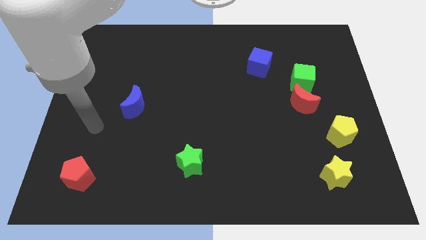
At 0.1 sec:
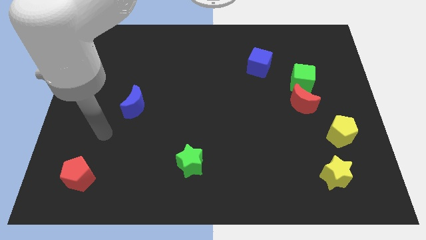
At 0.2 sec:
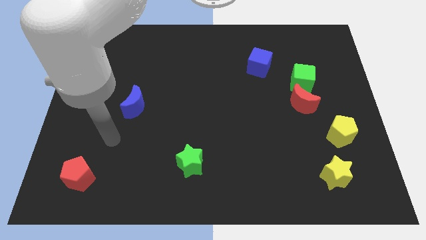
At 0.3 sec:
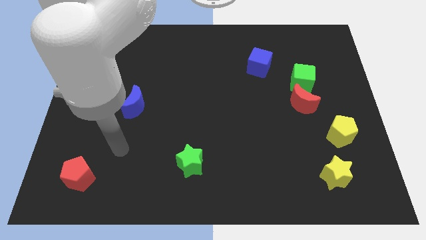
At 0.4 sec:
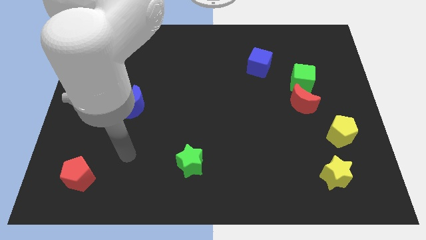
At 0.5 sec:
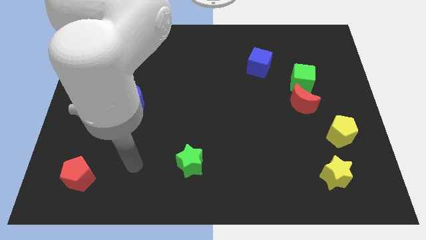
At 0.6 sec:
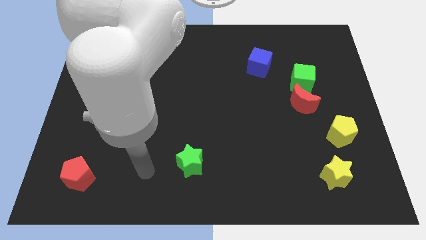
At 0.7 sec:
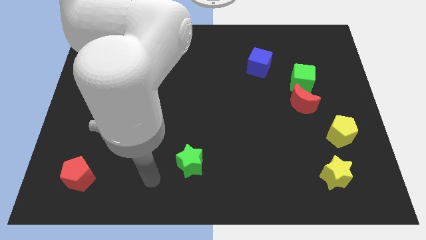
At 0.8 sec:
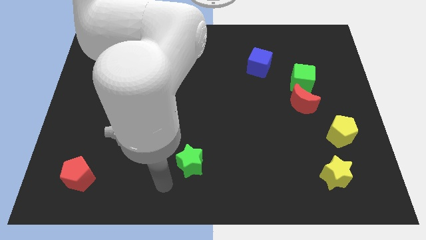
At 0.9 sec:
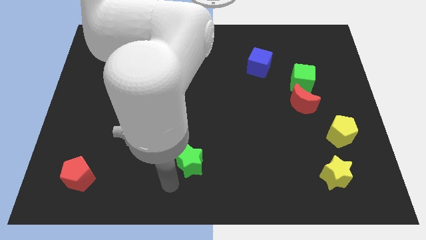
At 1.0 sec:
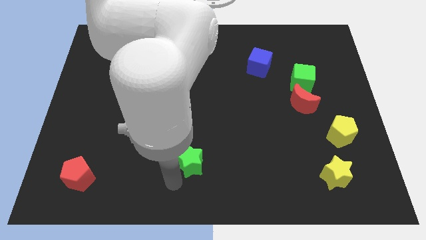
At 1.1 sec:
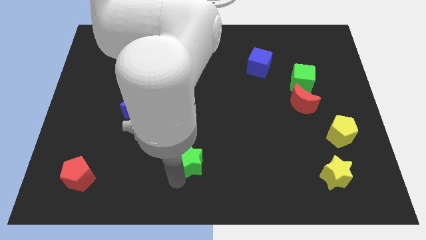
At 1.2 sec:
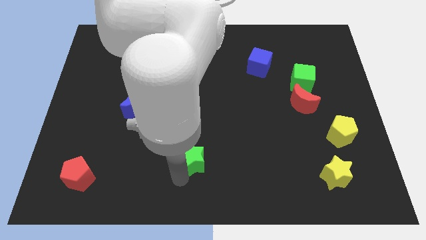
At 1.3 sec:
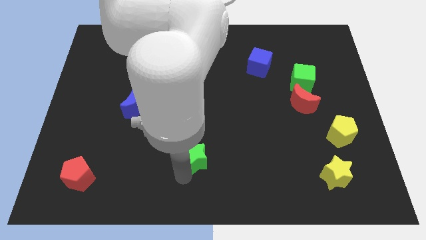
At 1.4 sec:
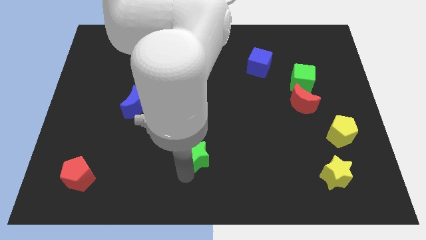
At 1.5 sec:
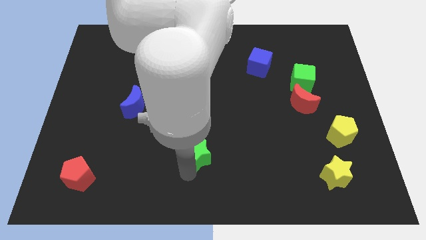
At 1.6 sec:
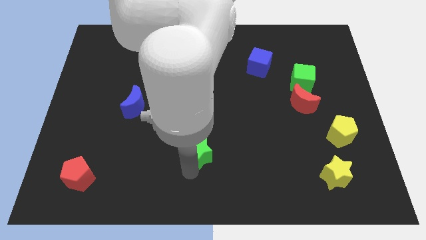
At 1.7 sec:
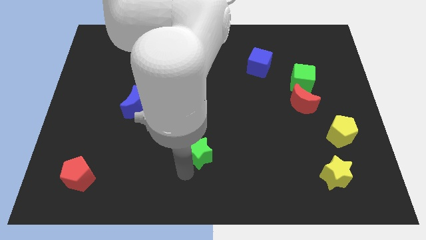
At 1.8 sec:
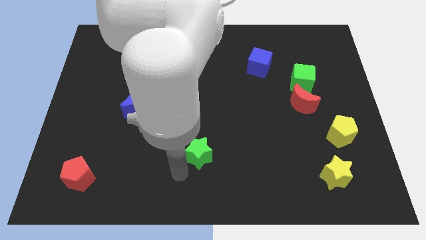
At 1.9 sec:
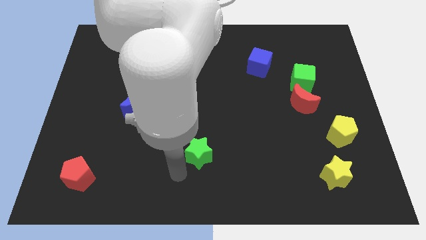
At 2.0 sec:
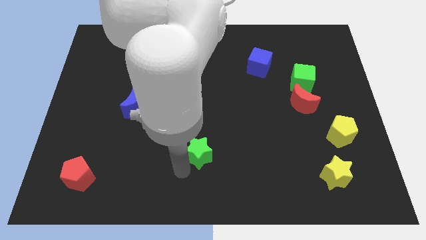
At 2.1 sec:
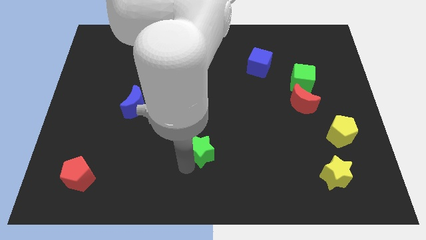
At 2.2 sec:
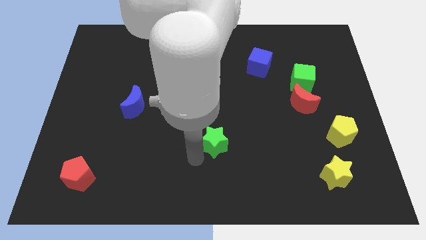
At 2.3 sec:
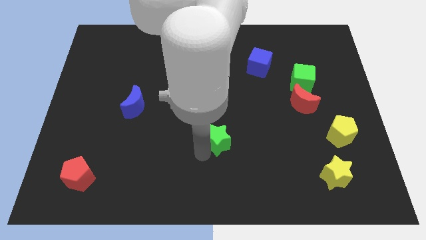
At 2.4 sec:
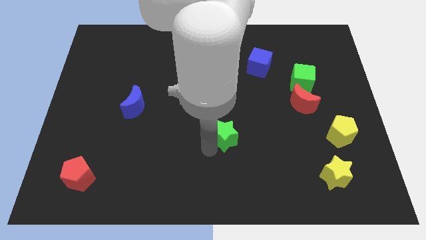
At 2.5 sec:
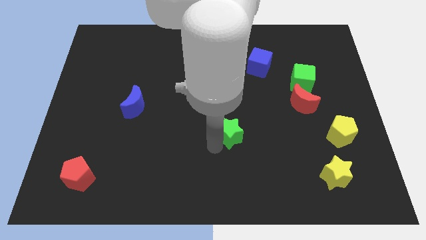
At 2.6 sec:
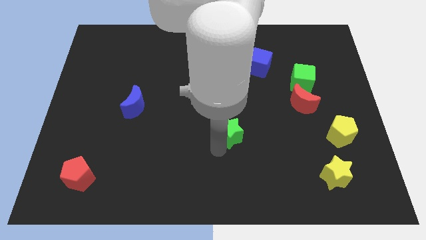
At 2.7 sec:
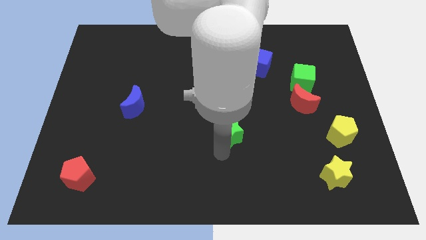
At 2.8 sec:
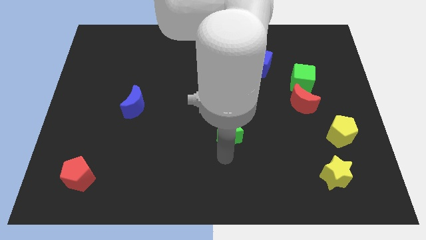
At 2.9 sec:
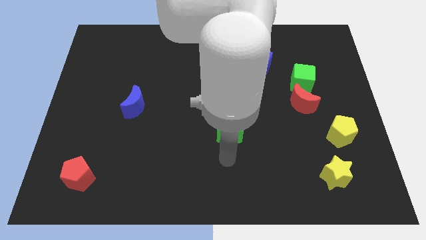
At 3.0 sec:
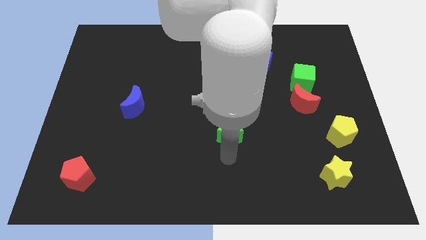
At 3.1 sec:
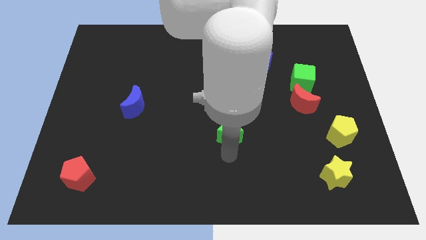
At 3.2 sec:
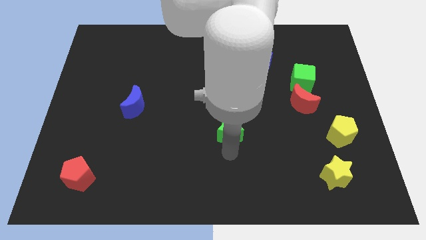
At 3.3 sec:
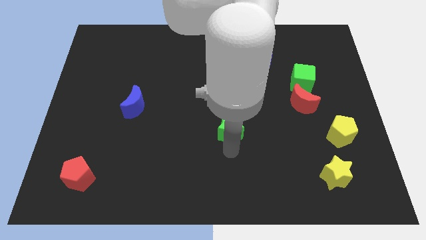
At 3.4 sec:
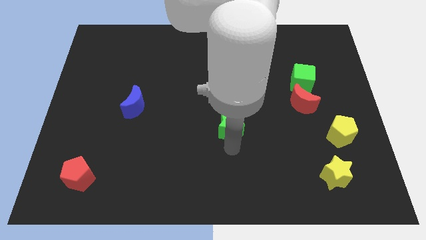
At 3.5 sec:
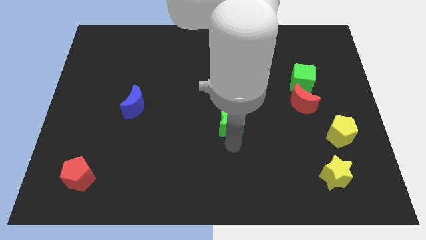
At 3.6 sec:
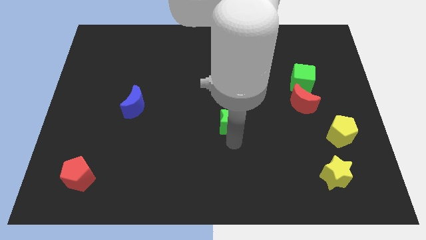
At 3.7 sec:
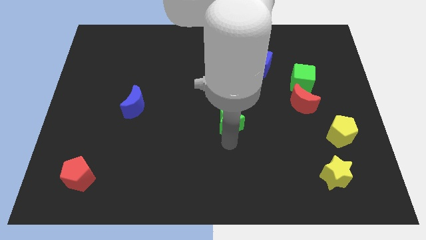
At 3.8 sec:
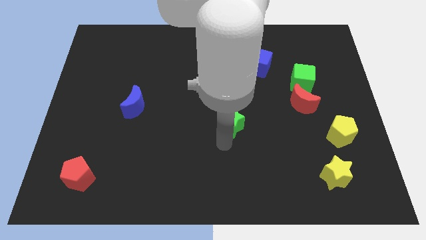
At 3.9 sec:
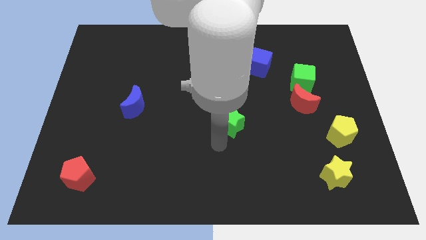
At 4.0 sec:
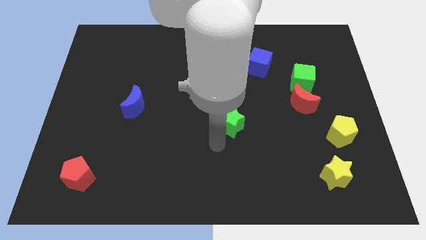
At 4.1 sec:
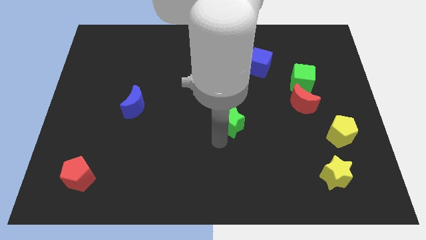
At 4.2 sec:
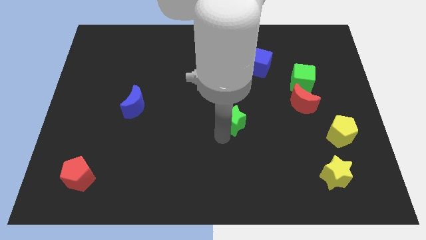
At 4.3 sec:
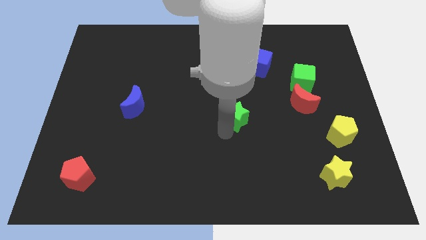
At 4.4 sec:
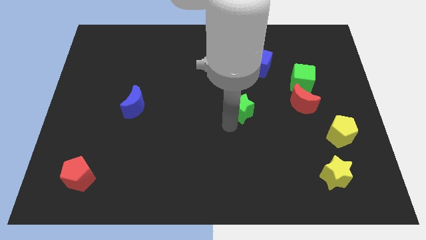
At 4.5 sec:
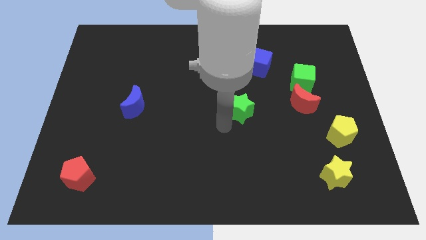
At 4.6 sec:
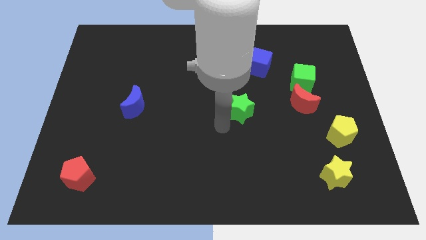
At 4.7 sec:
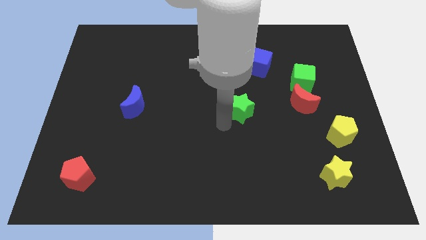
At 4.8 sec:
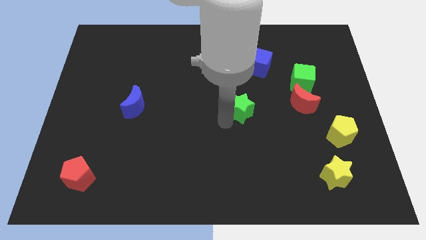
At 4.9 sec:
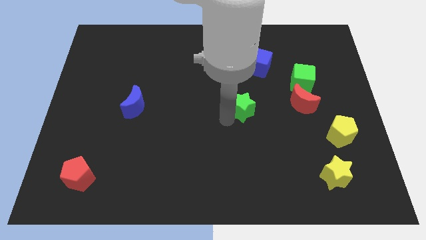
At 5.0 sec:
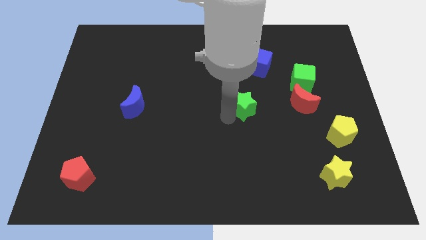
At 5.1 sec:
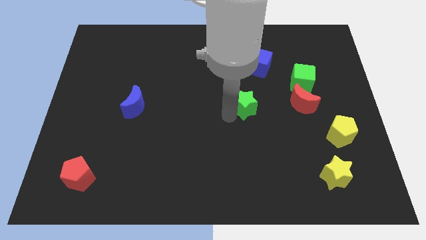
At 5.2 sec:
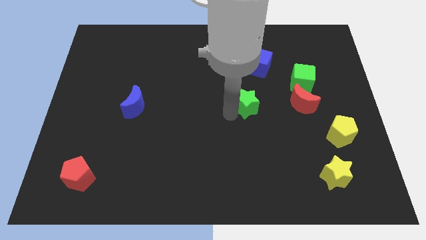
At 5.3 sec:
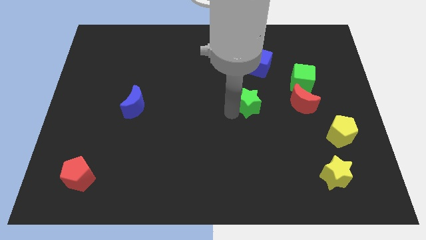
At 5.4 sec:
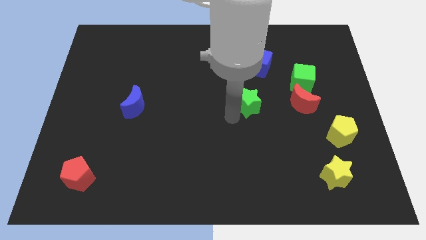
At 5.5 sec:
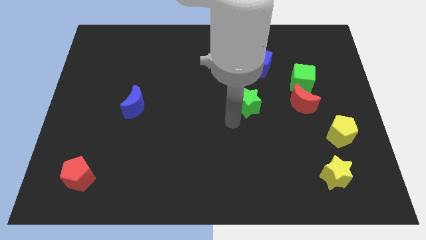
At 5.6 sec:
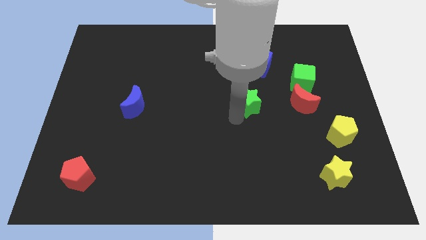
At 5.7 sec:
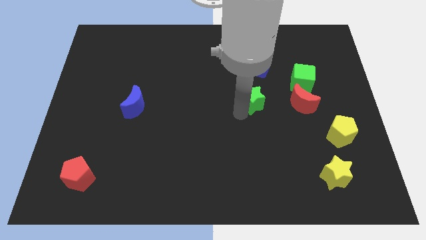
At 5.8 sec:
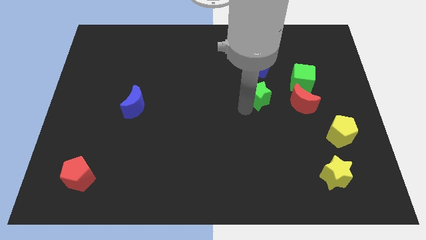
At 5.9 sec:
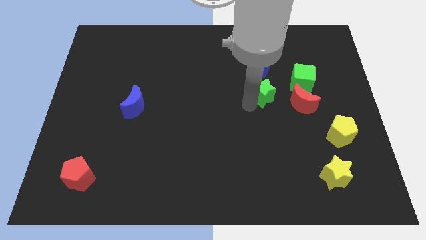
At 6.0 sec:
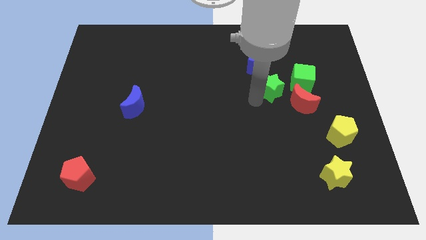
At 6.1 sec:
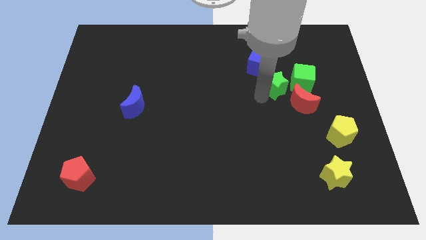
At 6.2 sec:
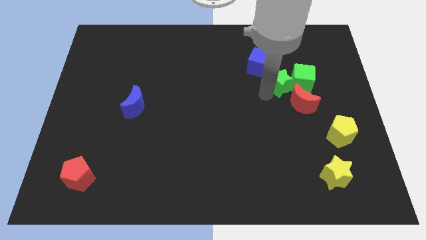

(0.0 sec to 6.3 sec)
put the green star to the top side of the red moon

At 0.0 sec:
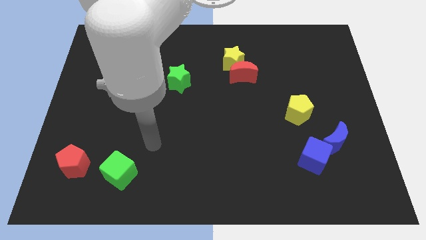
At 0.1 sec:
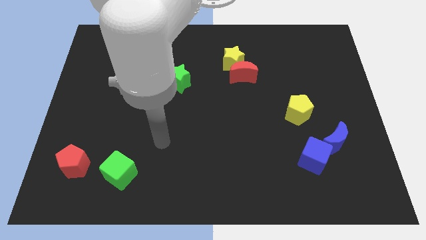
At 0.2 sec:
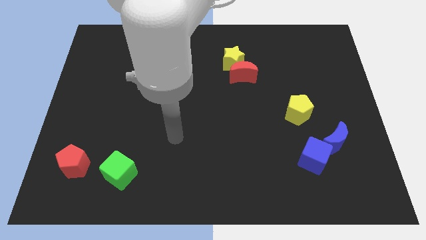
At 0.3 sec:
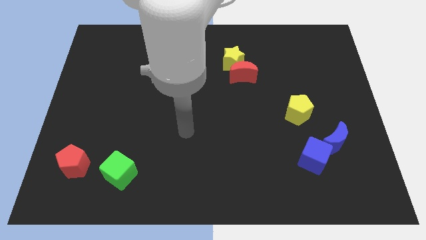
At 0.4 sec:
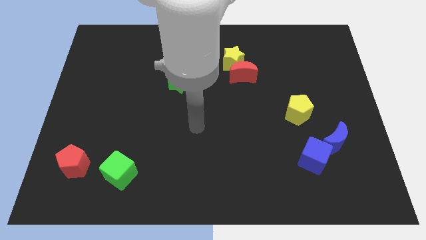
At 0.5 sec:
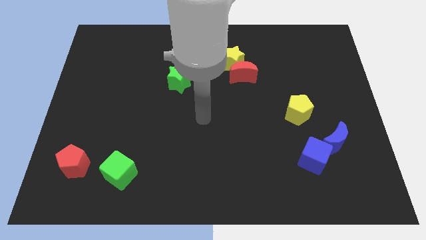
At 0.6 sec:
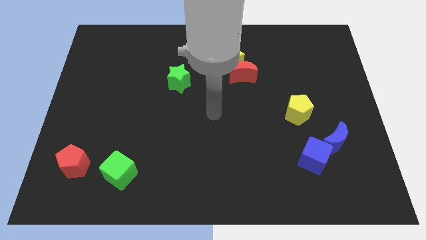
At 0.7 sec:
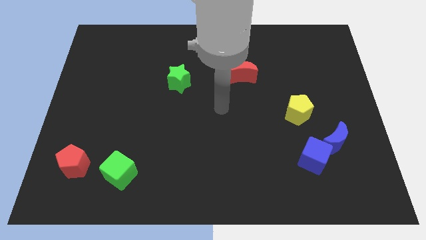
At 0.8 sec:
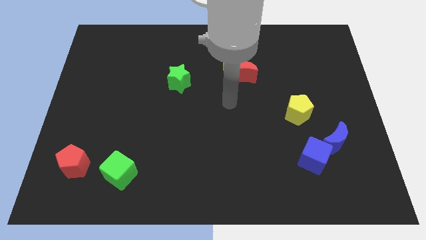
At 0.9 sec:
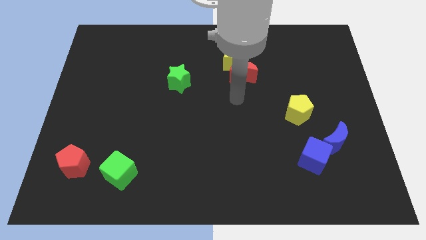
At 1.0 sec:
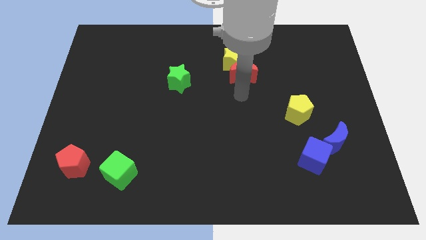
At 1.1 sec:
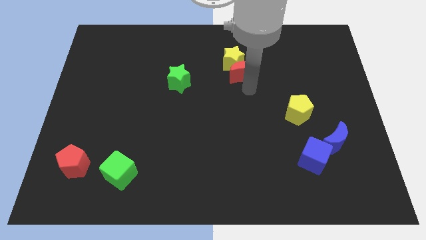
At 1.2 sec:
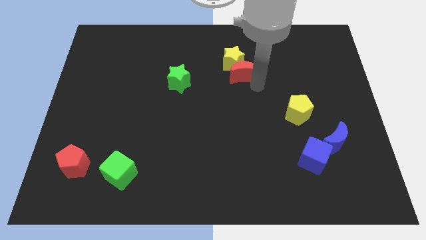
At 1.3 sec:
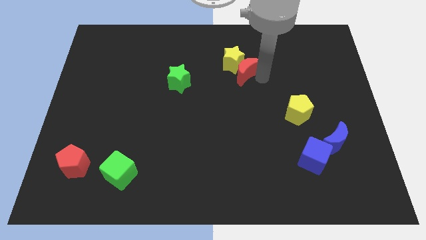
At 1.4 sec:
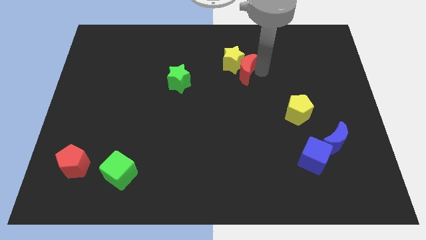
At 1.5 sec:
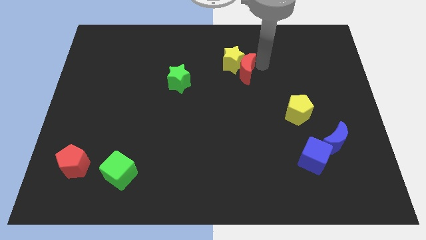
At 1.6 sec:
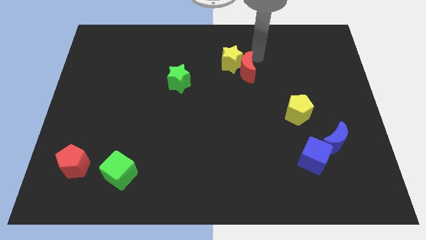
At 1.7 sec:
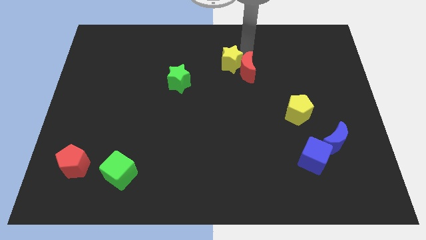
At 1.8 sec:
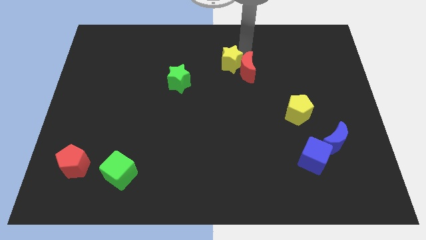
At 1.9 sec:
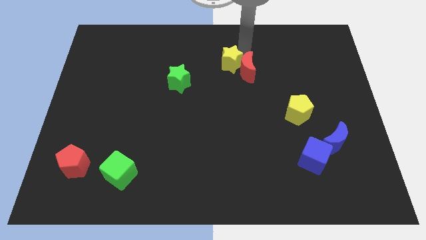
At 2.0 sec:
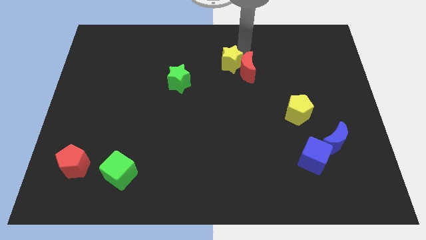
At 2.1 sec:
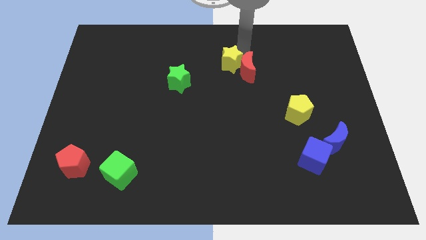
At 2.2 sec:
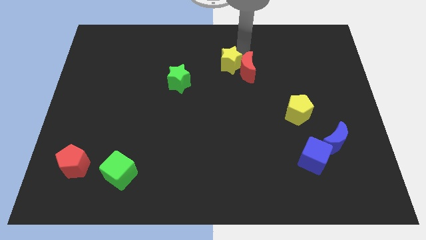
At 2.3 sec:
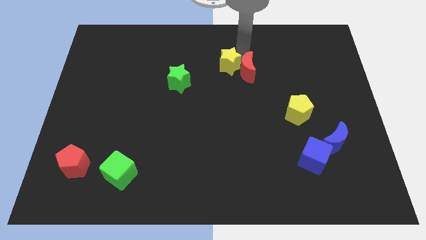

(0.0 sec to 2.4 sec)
slide the yellow star to the bottom left side of the red moon
